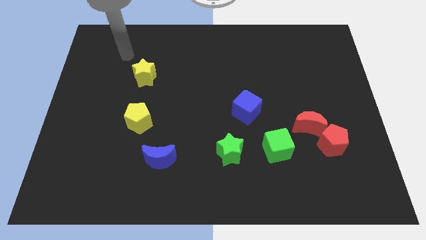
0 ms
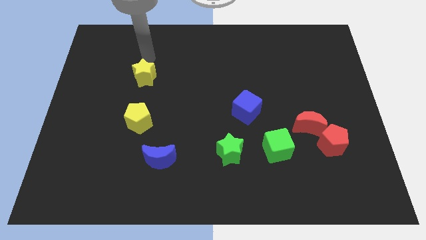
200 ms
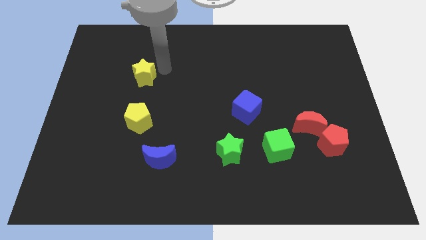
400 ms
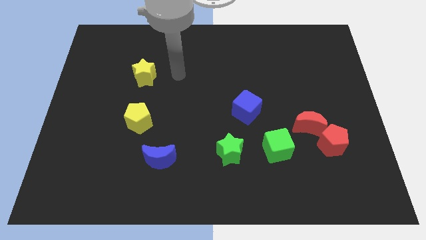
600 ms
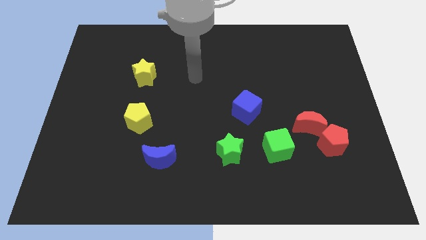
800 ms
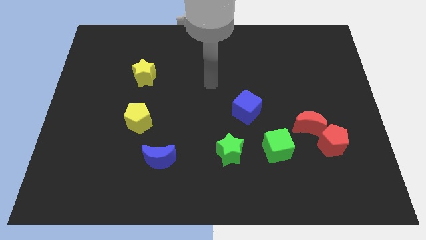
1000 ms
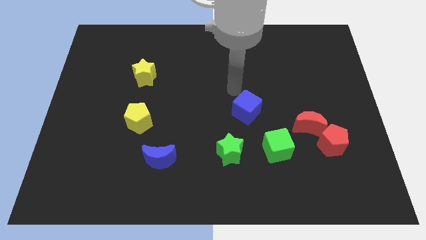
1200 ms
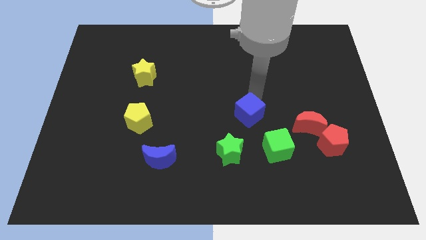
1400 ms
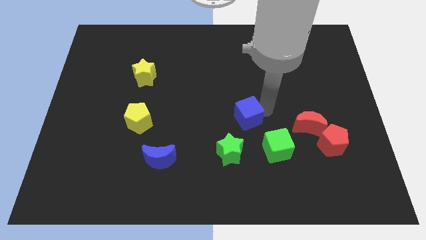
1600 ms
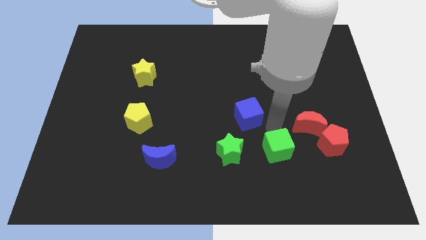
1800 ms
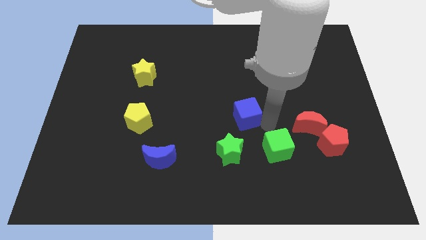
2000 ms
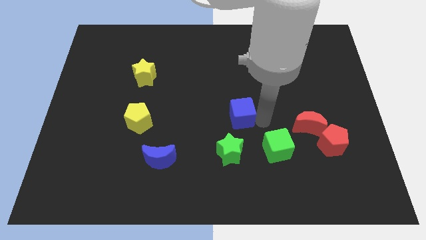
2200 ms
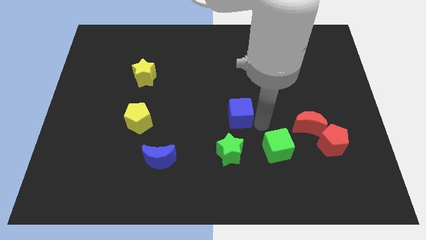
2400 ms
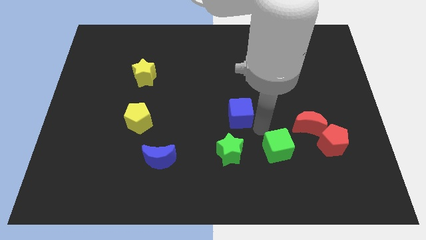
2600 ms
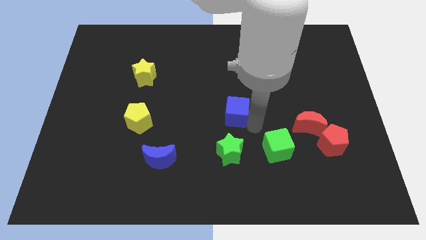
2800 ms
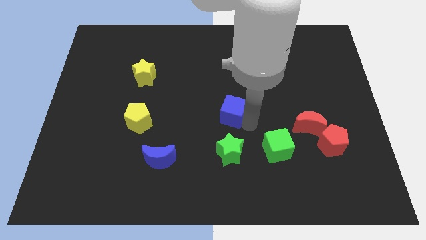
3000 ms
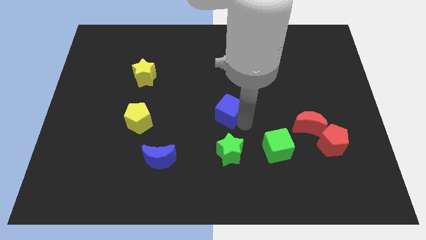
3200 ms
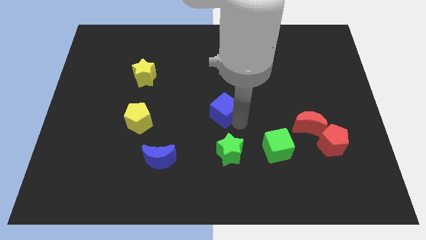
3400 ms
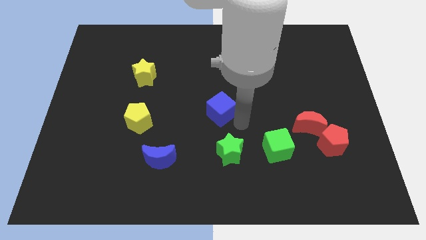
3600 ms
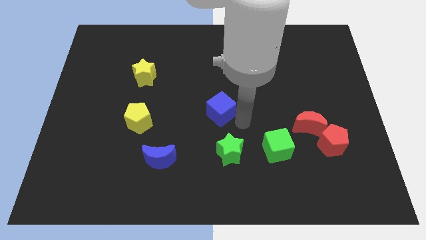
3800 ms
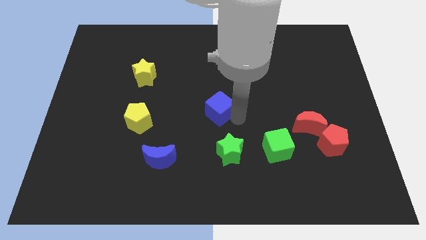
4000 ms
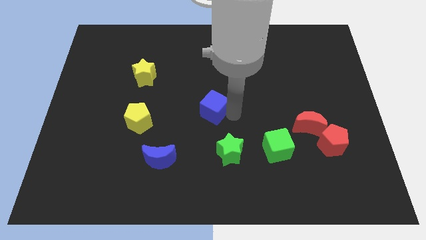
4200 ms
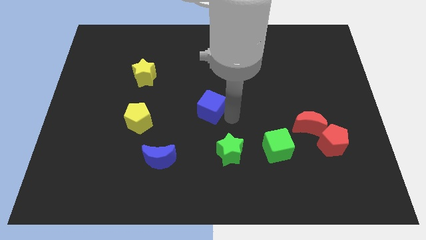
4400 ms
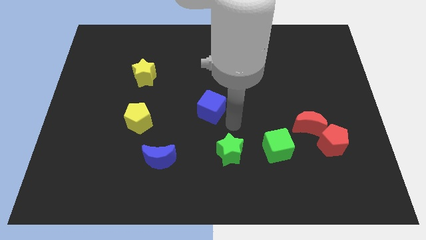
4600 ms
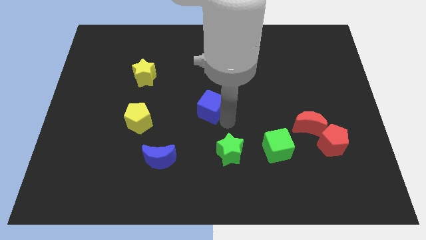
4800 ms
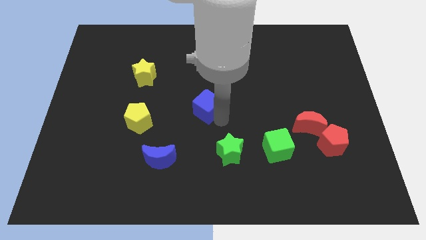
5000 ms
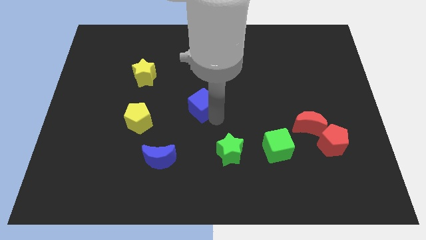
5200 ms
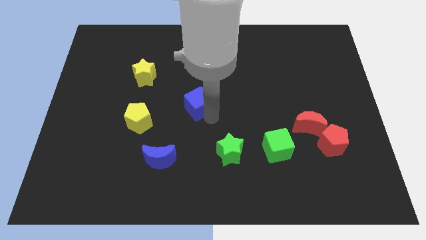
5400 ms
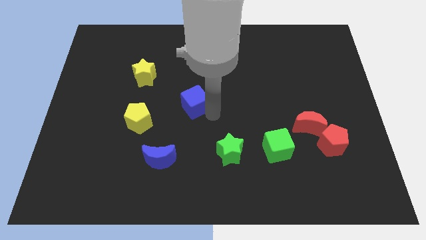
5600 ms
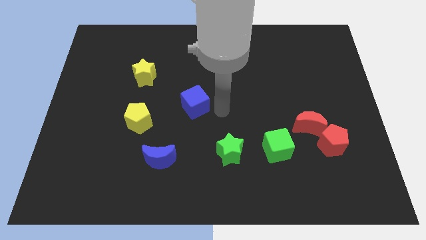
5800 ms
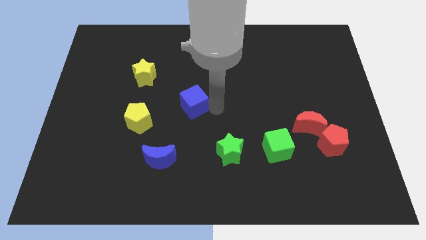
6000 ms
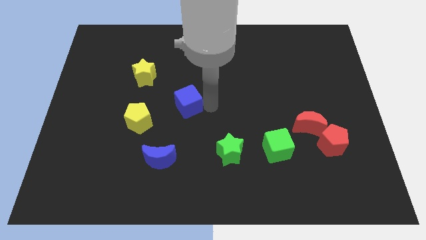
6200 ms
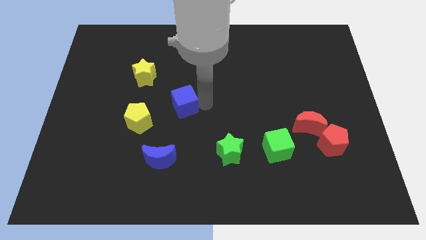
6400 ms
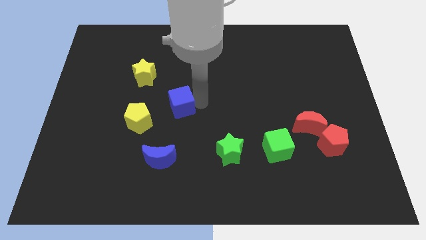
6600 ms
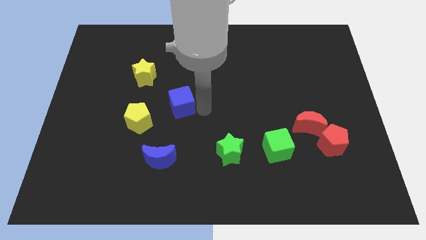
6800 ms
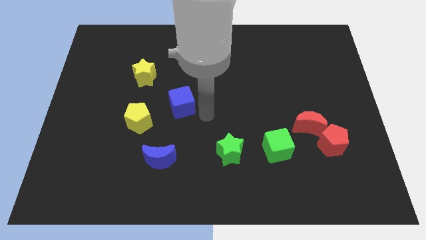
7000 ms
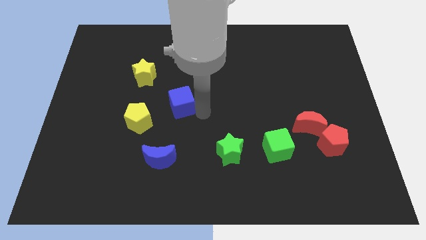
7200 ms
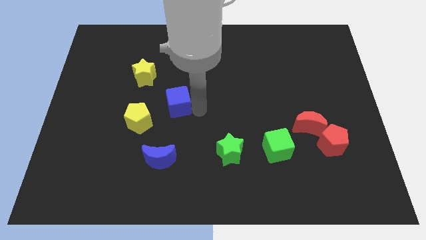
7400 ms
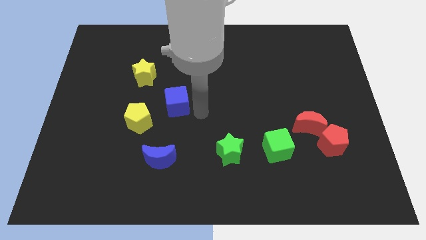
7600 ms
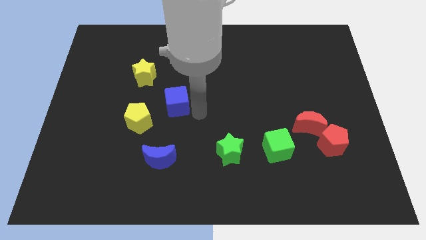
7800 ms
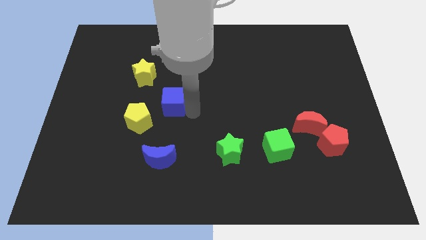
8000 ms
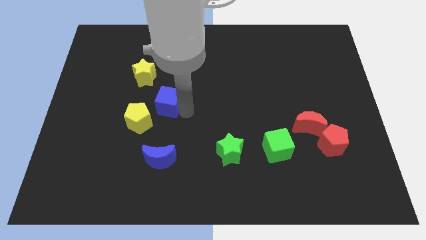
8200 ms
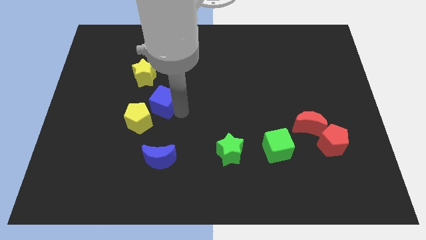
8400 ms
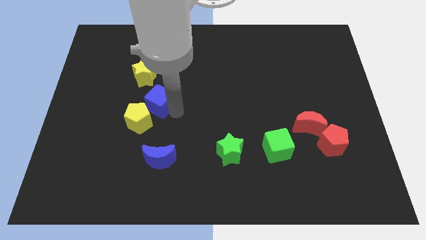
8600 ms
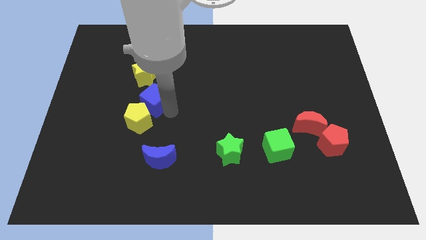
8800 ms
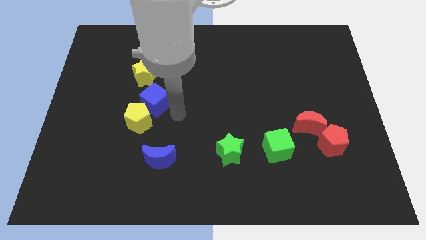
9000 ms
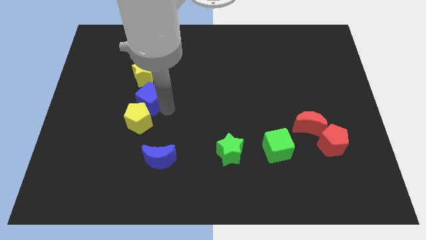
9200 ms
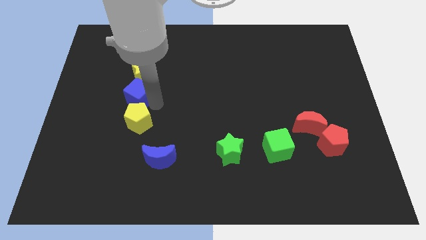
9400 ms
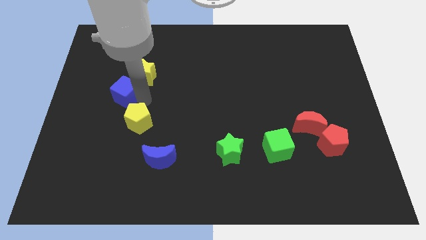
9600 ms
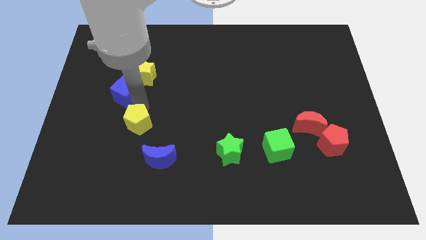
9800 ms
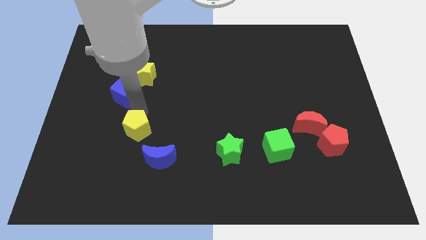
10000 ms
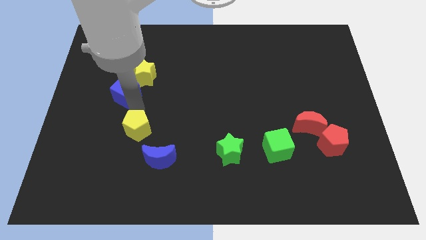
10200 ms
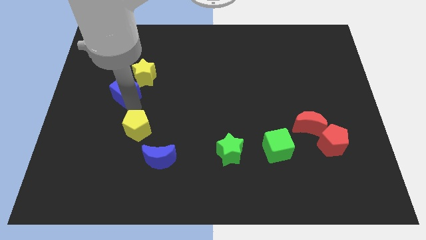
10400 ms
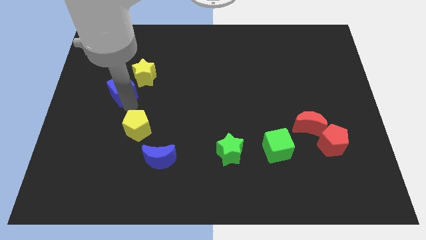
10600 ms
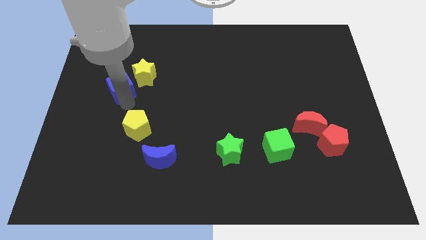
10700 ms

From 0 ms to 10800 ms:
put the blue cube just left of the yellow star
